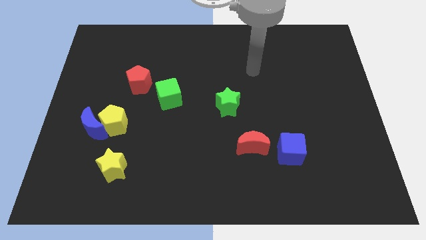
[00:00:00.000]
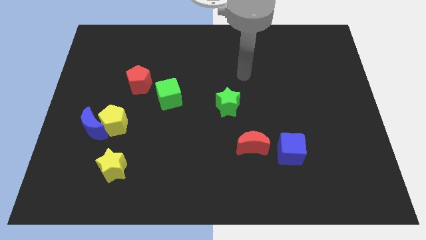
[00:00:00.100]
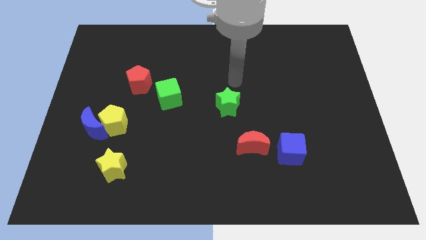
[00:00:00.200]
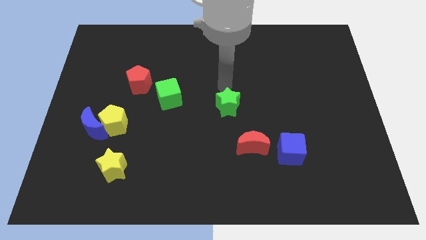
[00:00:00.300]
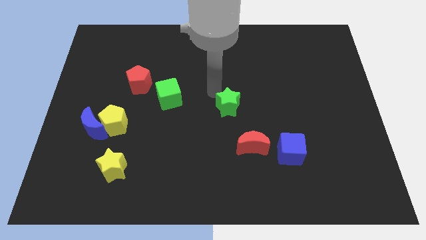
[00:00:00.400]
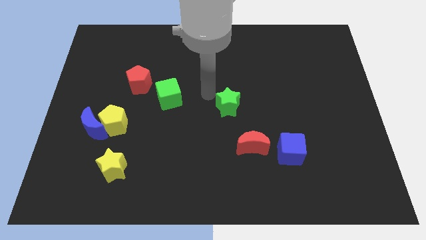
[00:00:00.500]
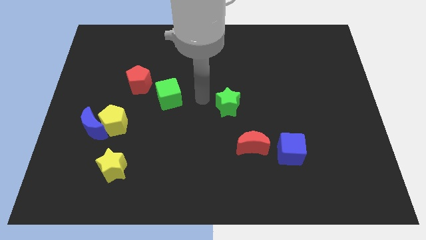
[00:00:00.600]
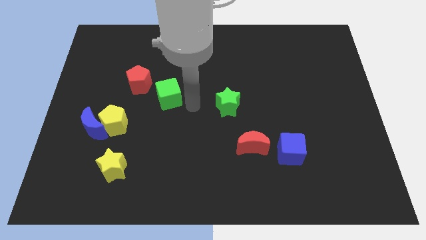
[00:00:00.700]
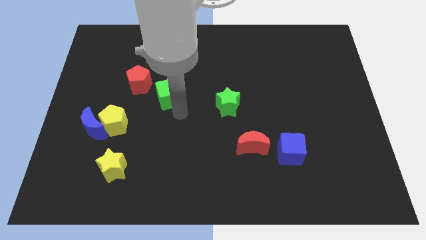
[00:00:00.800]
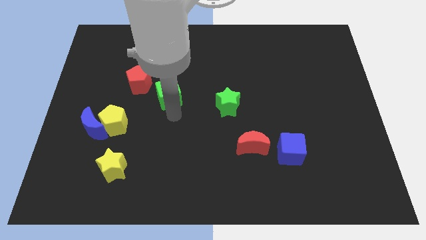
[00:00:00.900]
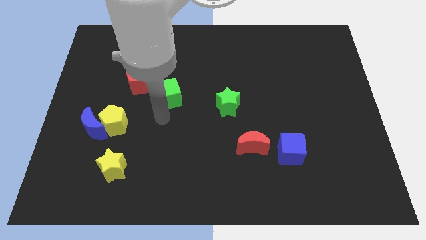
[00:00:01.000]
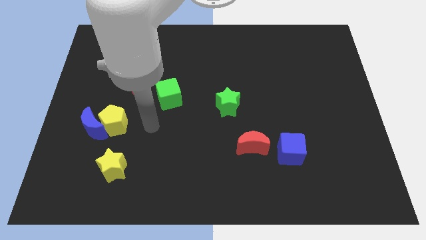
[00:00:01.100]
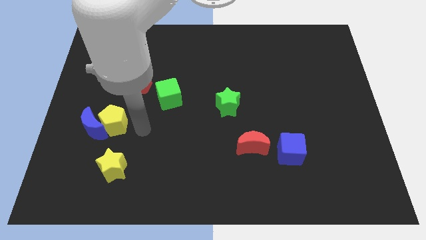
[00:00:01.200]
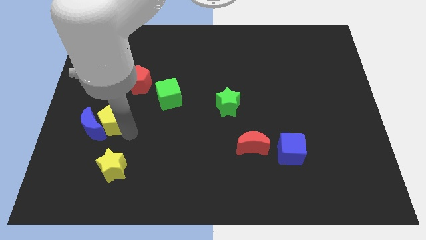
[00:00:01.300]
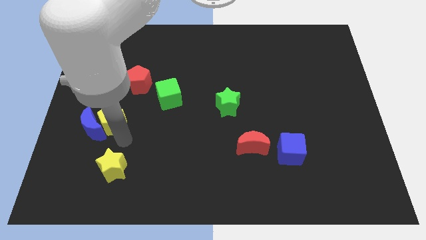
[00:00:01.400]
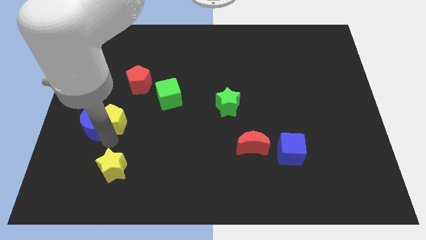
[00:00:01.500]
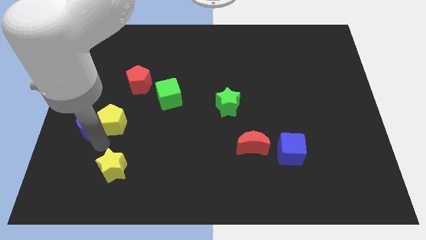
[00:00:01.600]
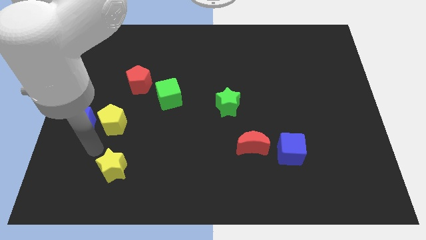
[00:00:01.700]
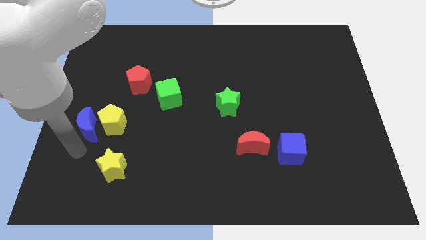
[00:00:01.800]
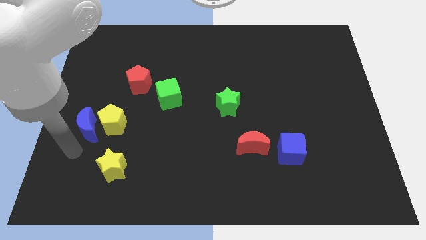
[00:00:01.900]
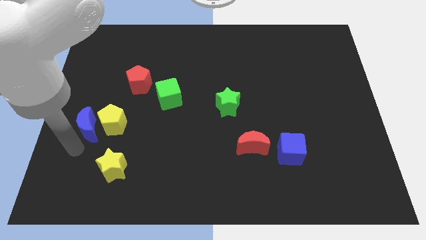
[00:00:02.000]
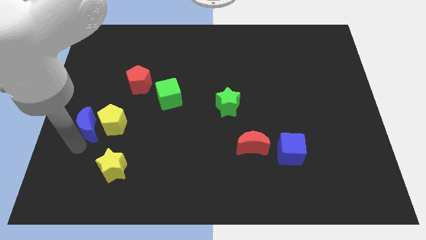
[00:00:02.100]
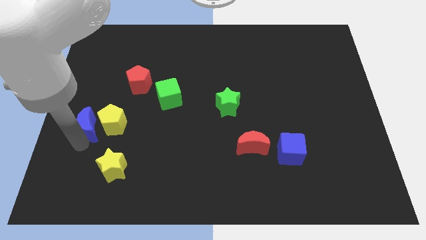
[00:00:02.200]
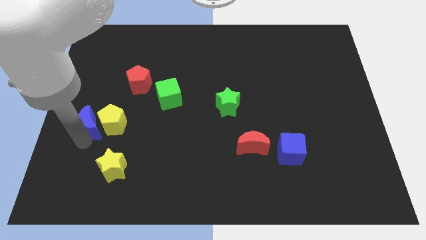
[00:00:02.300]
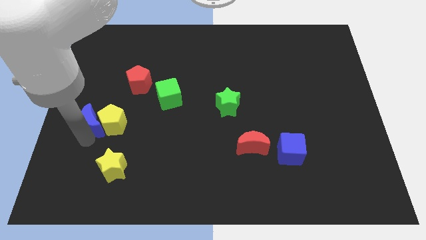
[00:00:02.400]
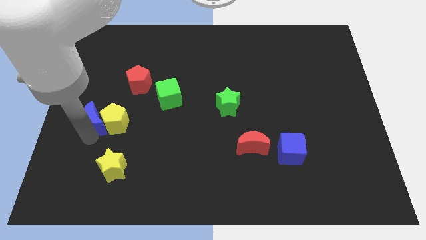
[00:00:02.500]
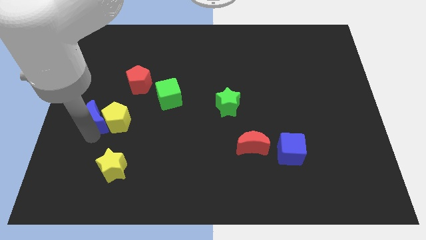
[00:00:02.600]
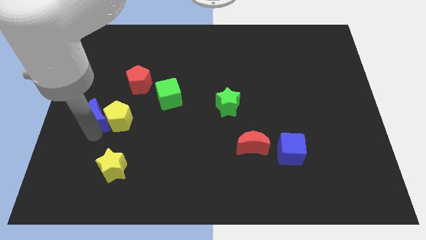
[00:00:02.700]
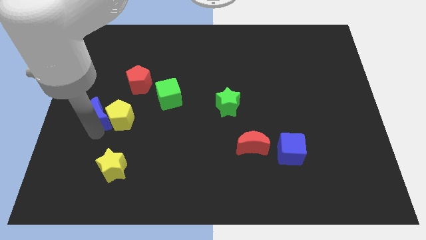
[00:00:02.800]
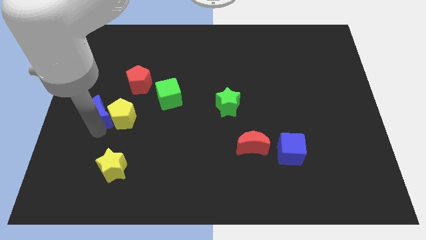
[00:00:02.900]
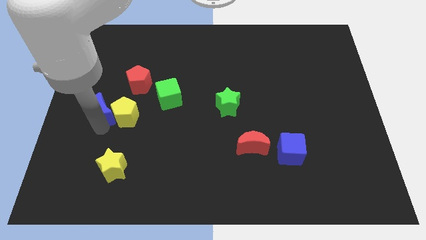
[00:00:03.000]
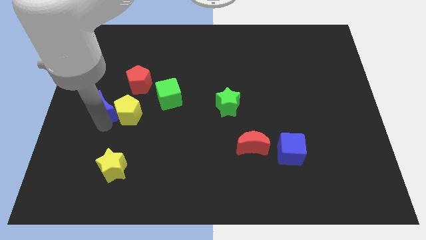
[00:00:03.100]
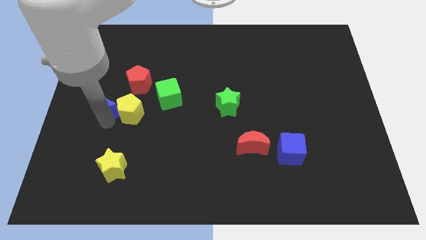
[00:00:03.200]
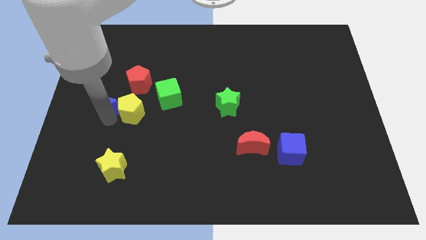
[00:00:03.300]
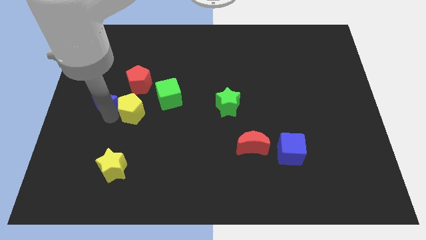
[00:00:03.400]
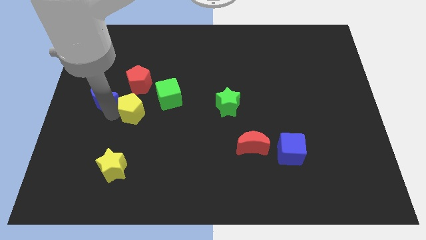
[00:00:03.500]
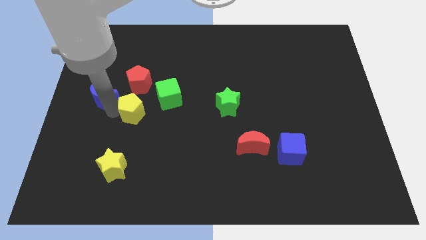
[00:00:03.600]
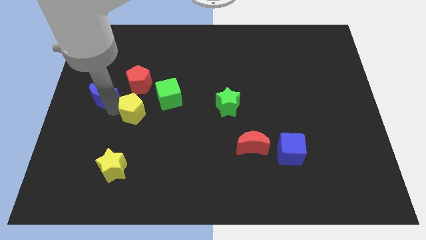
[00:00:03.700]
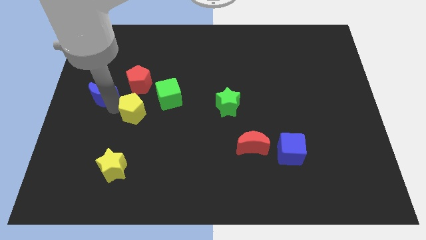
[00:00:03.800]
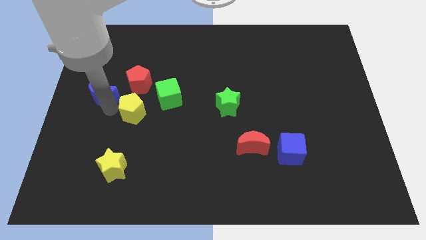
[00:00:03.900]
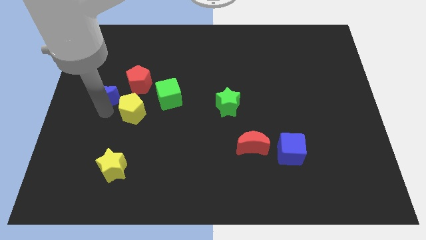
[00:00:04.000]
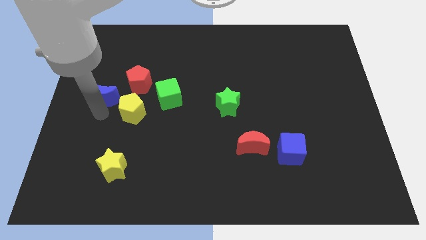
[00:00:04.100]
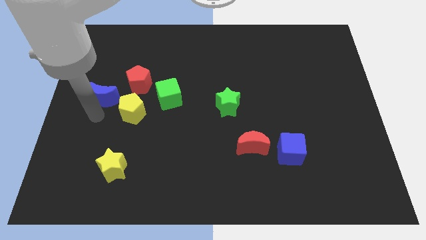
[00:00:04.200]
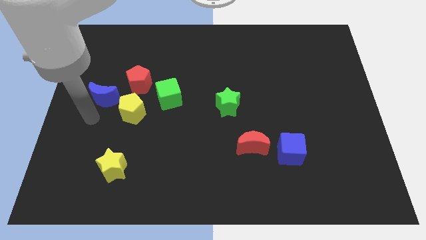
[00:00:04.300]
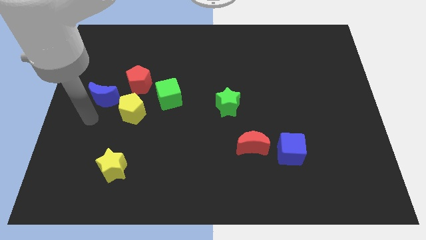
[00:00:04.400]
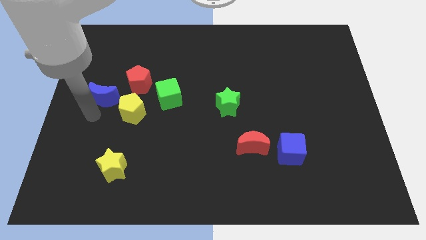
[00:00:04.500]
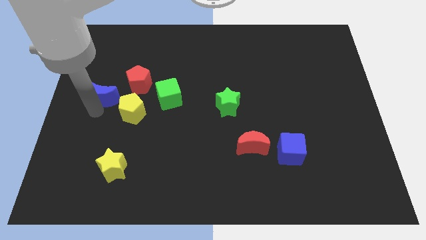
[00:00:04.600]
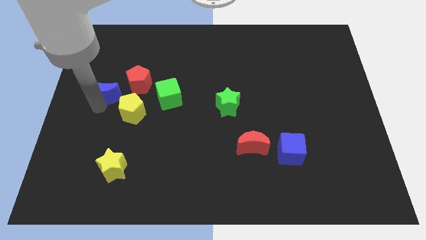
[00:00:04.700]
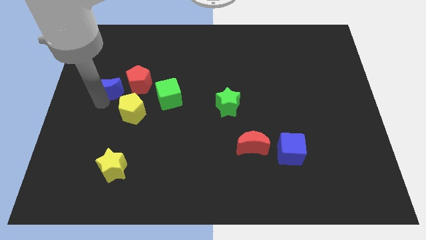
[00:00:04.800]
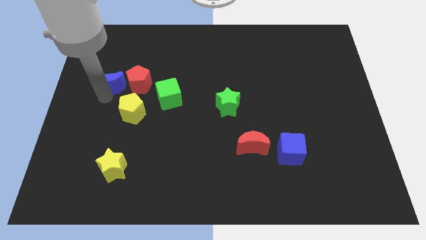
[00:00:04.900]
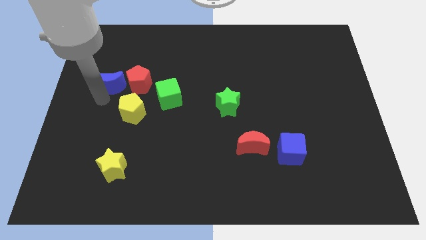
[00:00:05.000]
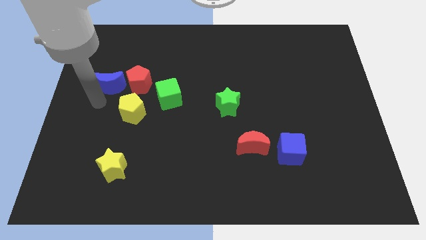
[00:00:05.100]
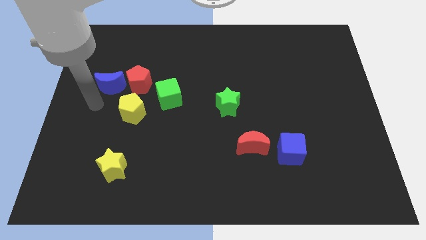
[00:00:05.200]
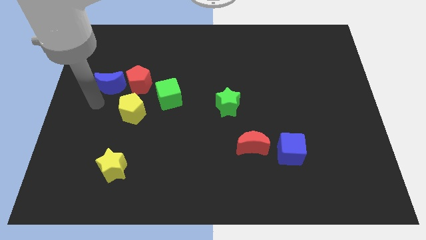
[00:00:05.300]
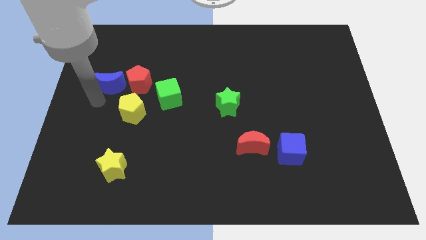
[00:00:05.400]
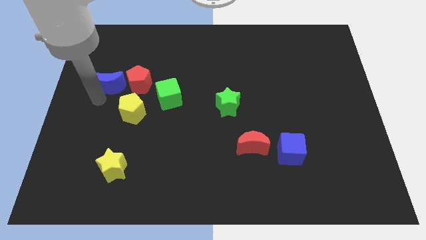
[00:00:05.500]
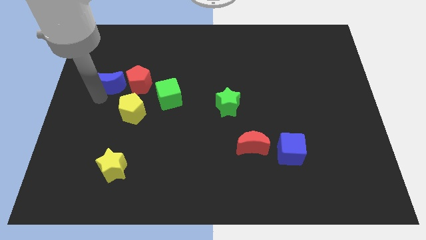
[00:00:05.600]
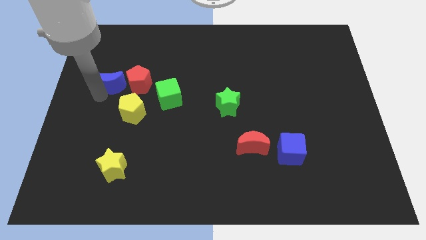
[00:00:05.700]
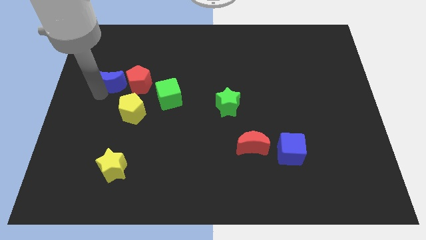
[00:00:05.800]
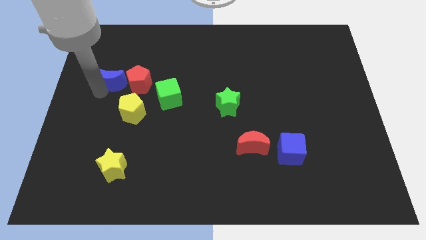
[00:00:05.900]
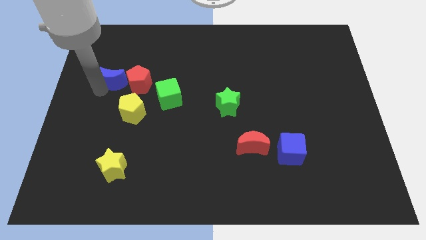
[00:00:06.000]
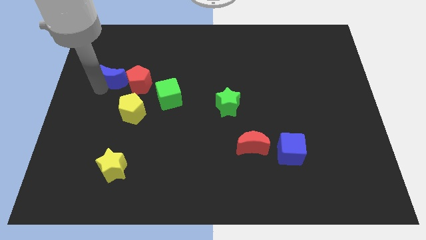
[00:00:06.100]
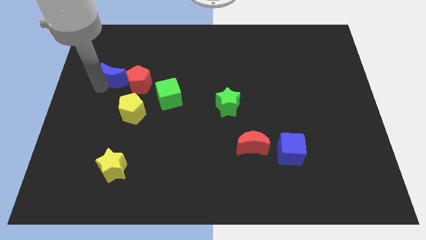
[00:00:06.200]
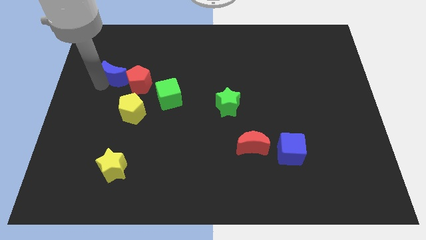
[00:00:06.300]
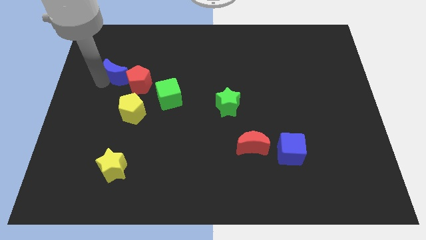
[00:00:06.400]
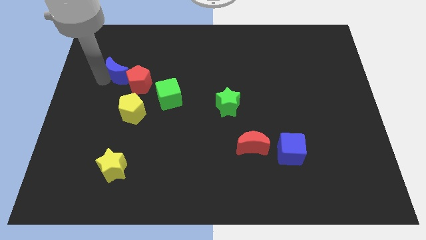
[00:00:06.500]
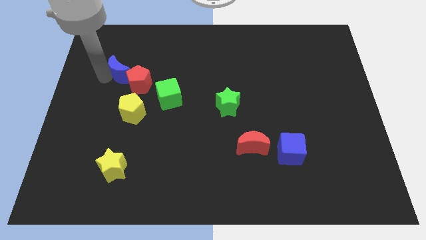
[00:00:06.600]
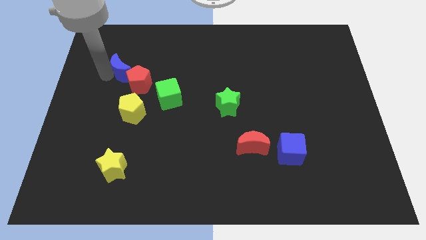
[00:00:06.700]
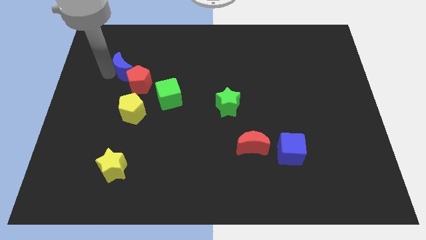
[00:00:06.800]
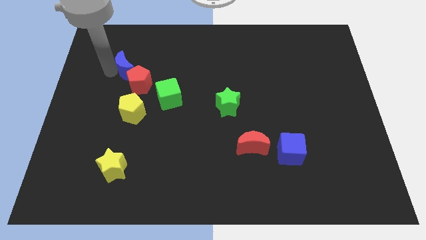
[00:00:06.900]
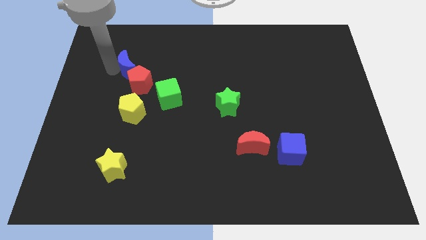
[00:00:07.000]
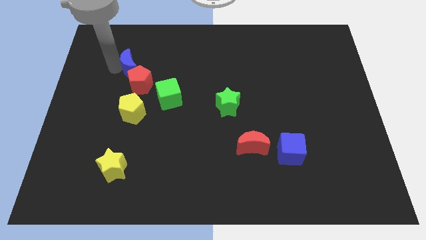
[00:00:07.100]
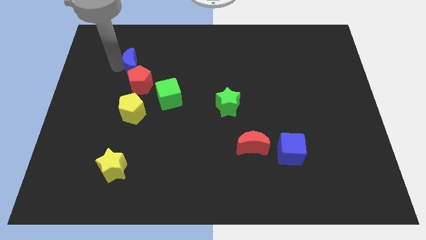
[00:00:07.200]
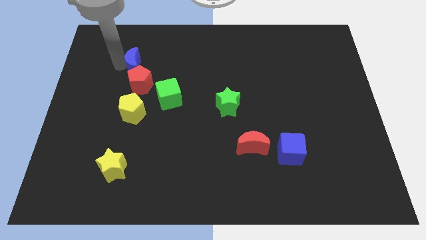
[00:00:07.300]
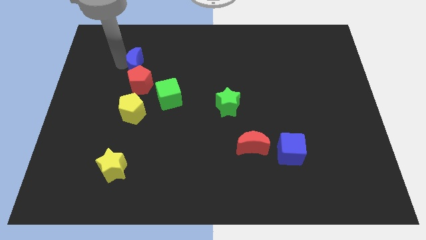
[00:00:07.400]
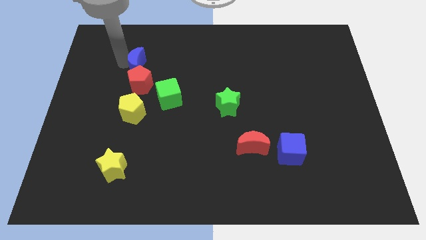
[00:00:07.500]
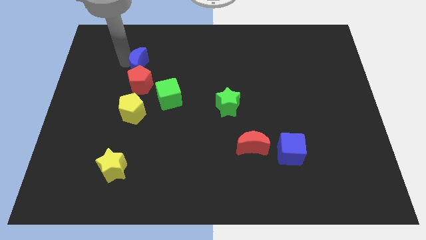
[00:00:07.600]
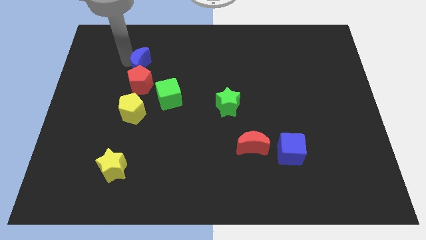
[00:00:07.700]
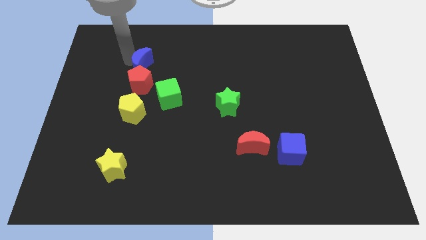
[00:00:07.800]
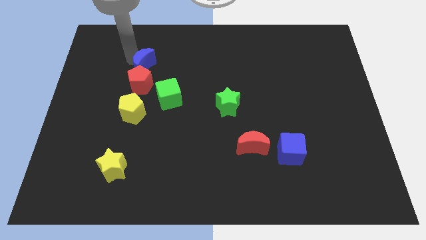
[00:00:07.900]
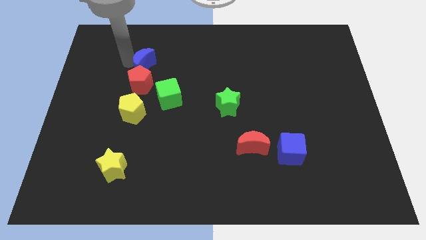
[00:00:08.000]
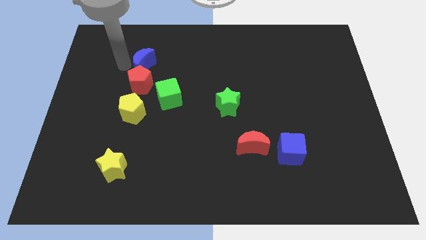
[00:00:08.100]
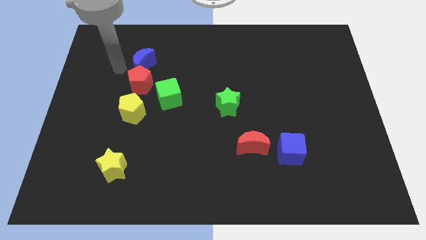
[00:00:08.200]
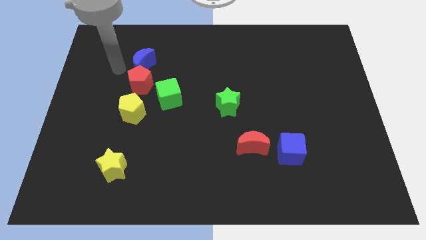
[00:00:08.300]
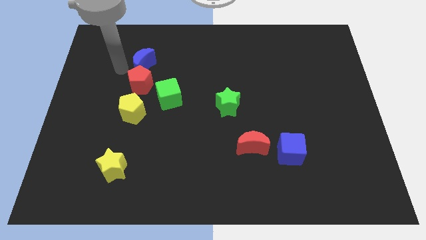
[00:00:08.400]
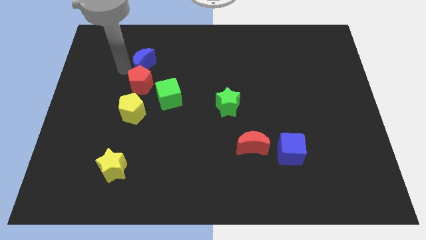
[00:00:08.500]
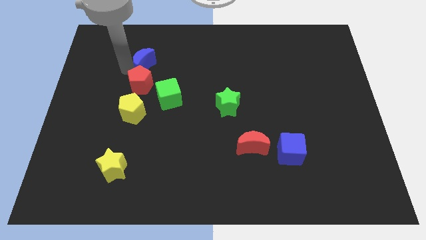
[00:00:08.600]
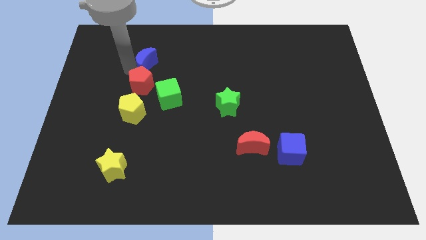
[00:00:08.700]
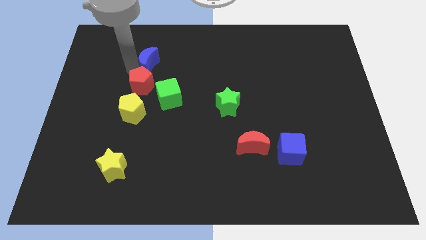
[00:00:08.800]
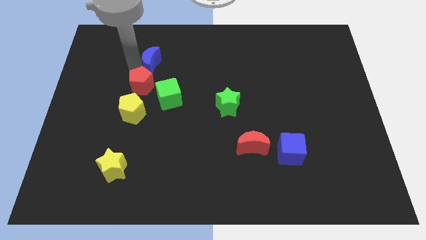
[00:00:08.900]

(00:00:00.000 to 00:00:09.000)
move the blue moon up and right
